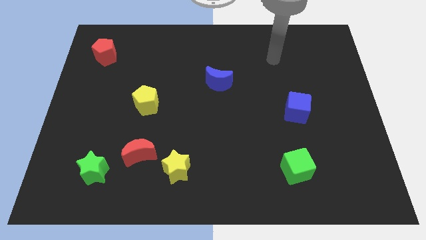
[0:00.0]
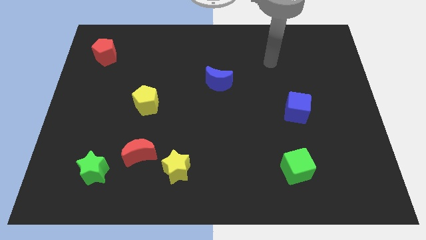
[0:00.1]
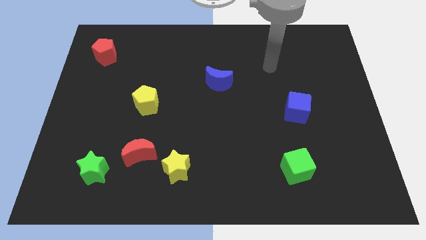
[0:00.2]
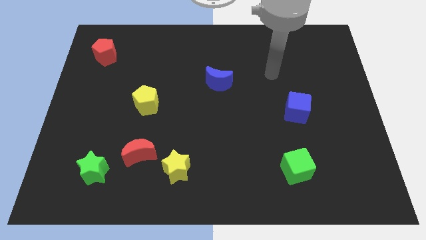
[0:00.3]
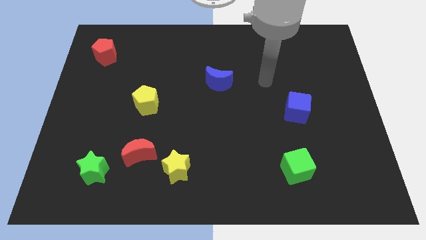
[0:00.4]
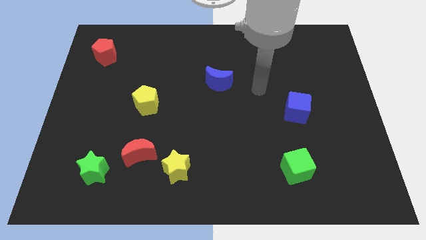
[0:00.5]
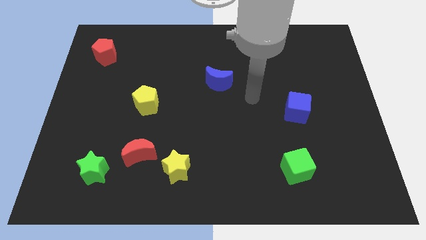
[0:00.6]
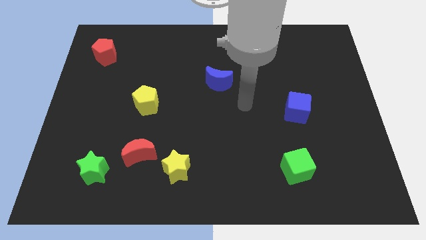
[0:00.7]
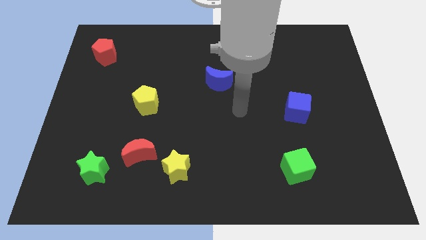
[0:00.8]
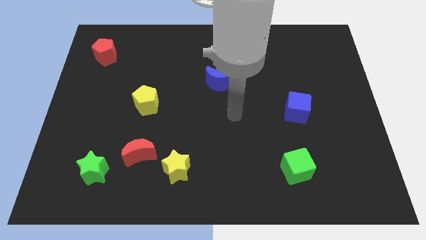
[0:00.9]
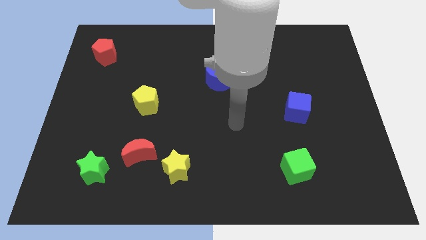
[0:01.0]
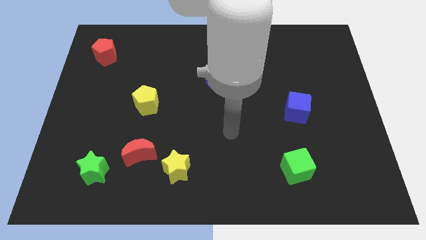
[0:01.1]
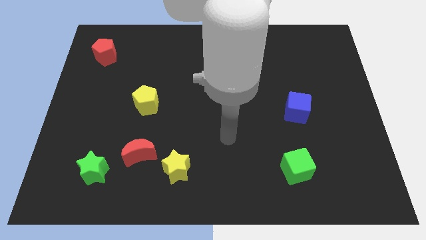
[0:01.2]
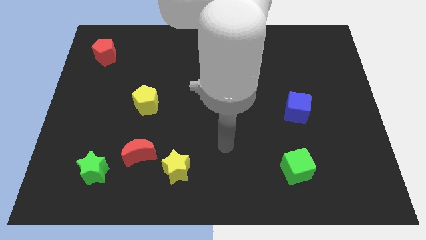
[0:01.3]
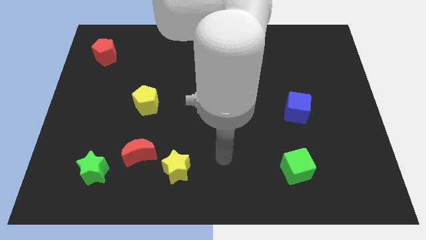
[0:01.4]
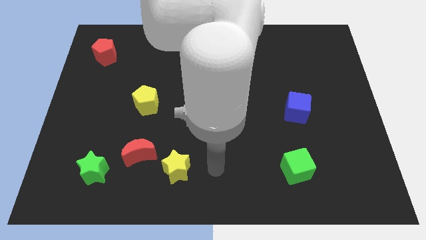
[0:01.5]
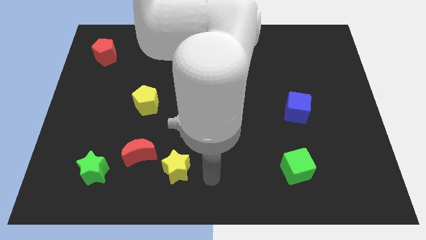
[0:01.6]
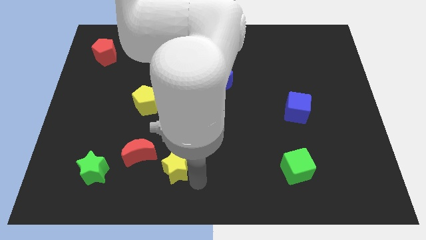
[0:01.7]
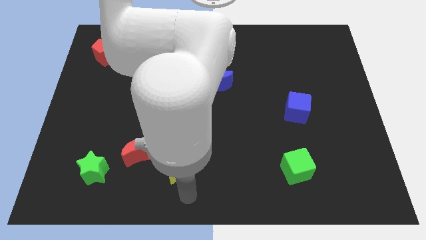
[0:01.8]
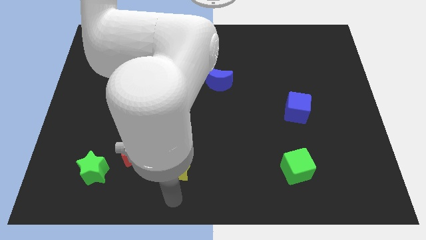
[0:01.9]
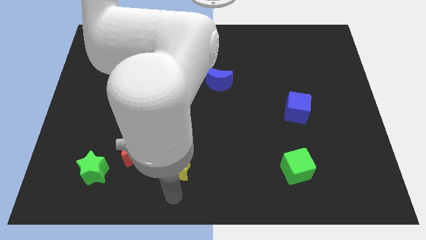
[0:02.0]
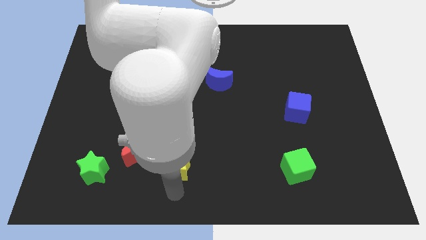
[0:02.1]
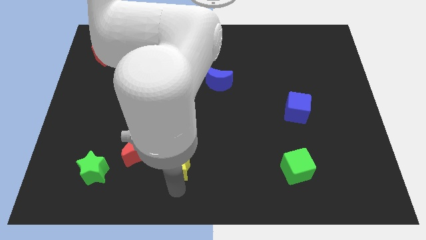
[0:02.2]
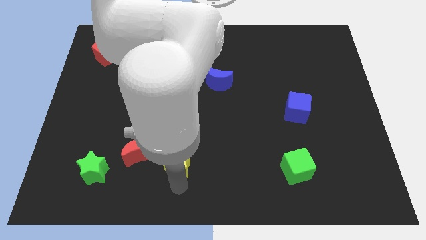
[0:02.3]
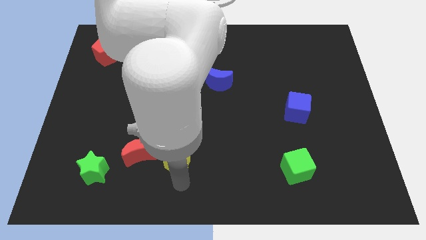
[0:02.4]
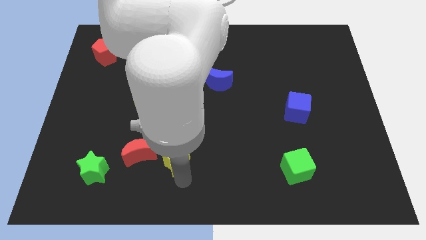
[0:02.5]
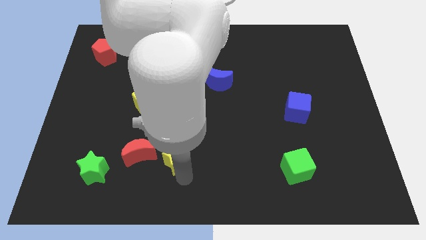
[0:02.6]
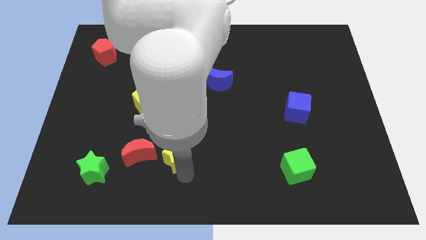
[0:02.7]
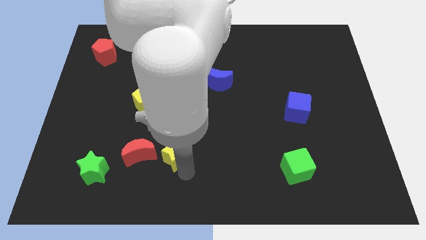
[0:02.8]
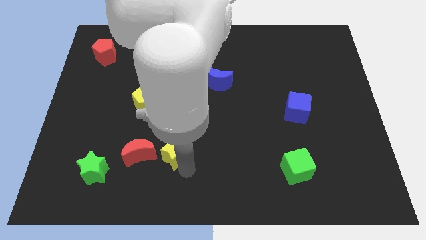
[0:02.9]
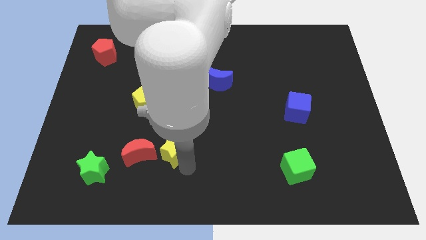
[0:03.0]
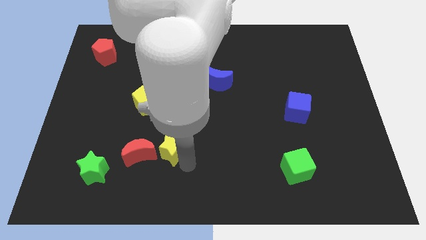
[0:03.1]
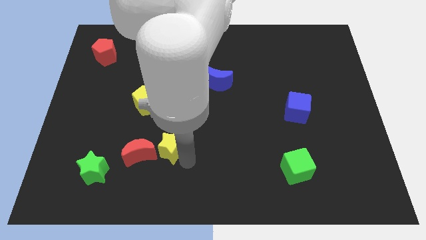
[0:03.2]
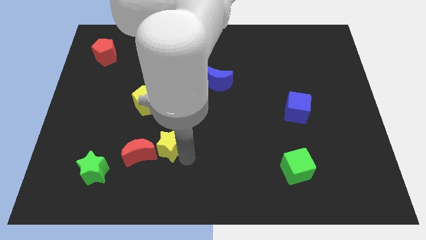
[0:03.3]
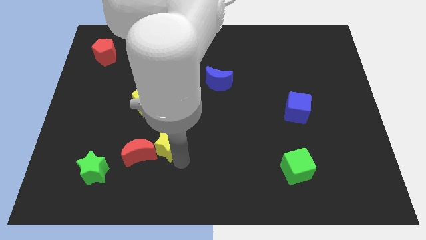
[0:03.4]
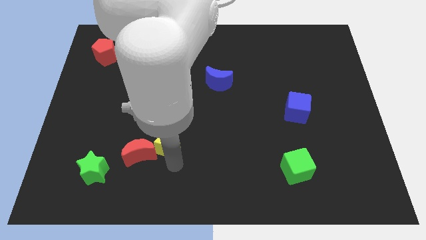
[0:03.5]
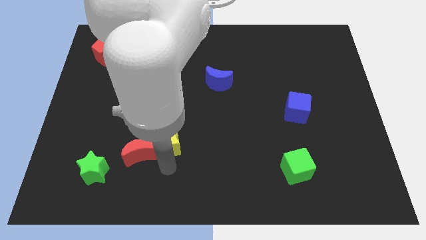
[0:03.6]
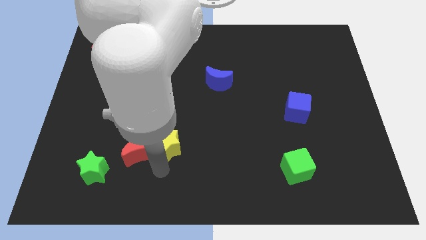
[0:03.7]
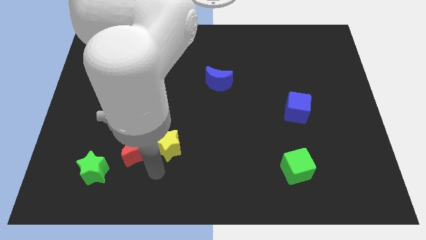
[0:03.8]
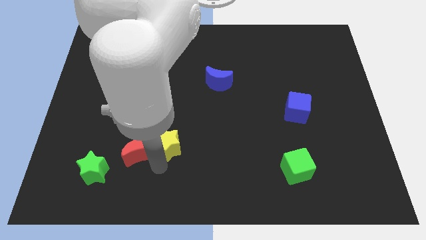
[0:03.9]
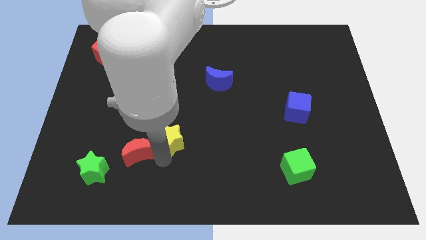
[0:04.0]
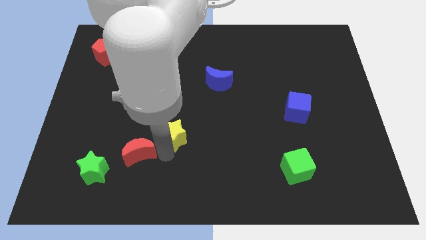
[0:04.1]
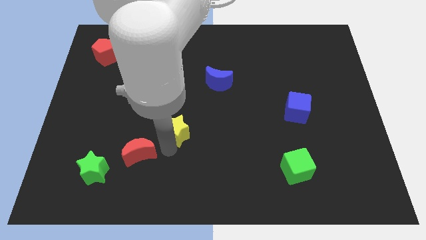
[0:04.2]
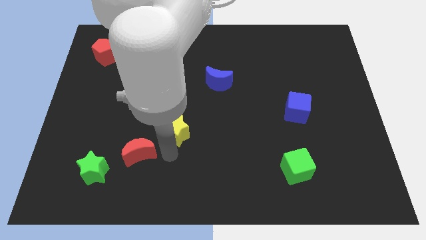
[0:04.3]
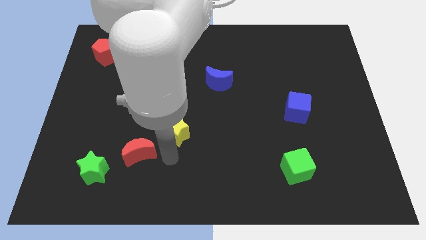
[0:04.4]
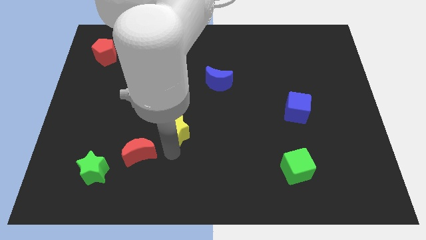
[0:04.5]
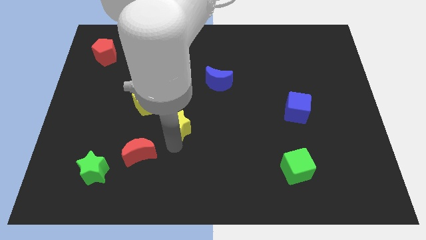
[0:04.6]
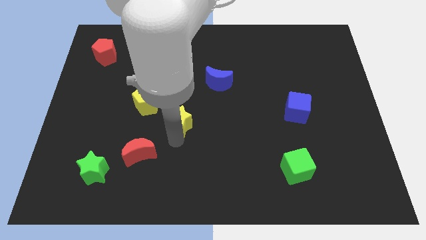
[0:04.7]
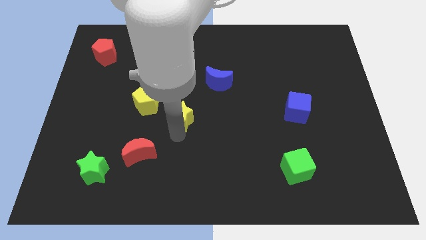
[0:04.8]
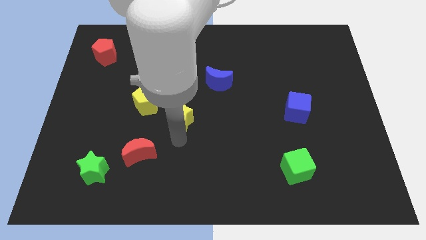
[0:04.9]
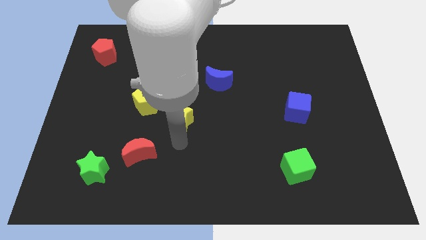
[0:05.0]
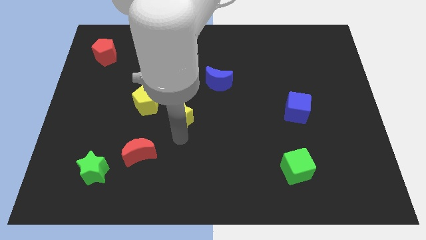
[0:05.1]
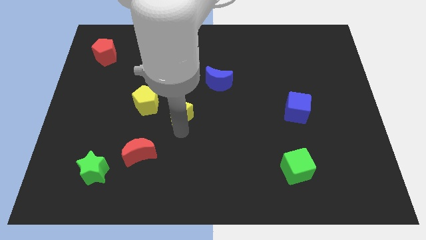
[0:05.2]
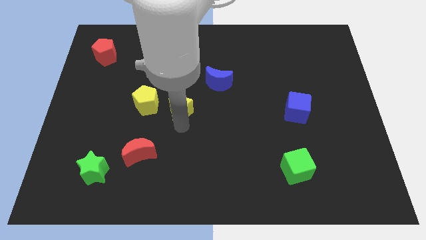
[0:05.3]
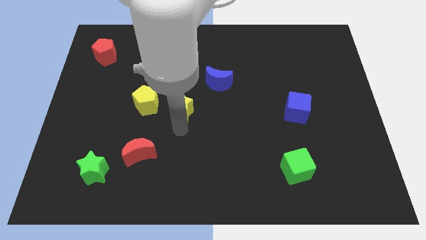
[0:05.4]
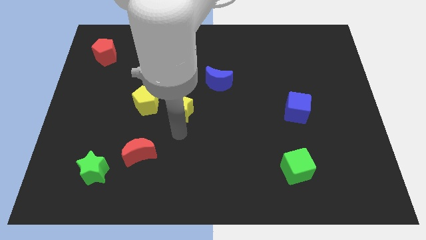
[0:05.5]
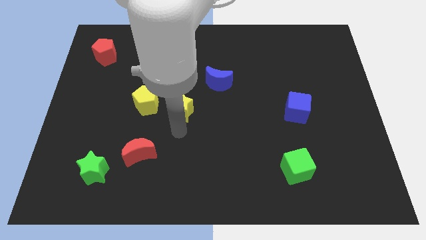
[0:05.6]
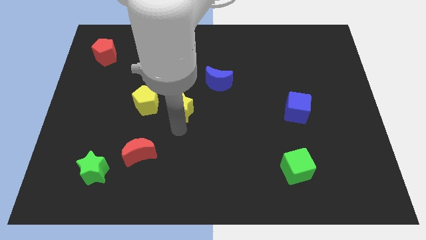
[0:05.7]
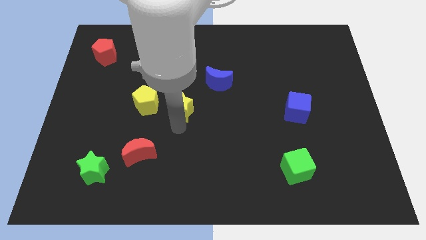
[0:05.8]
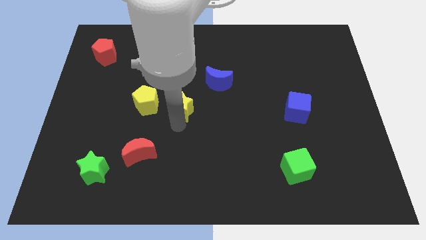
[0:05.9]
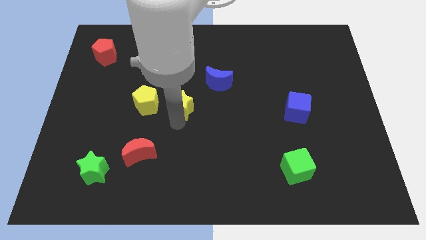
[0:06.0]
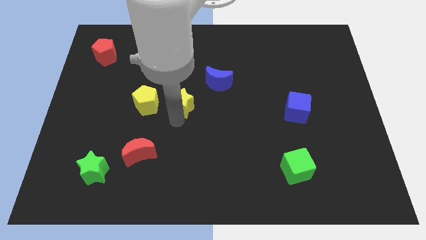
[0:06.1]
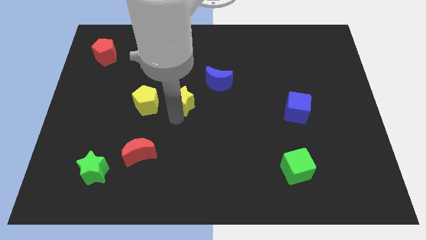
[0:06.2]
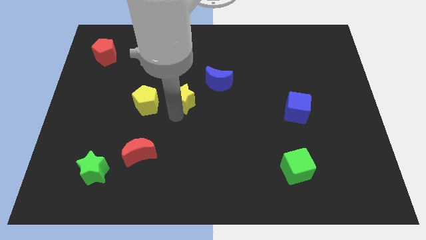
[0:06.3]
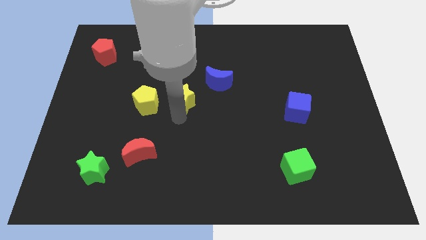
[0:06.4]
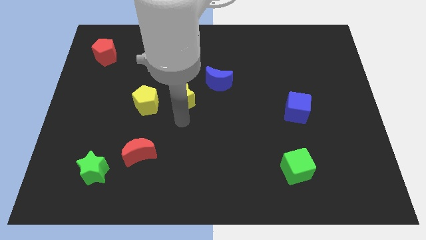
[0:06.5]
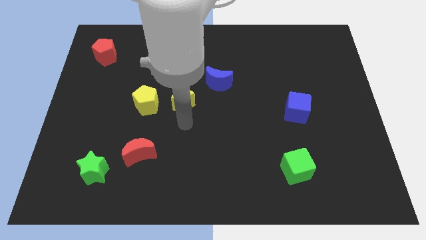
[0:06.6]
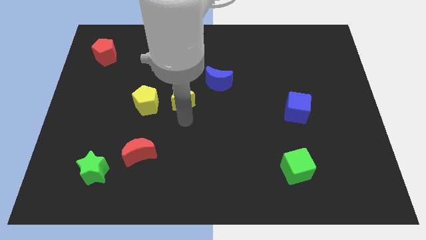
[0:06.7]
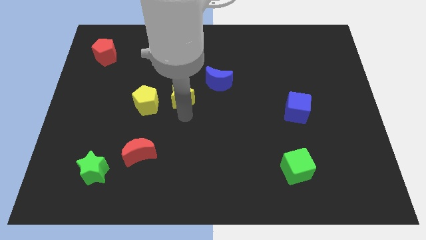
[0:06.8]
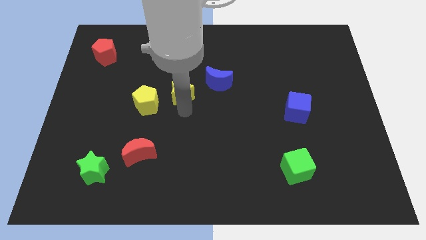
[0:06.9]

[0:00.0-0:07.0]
slide the yellow star upwards

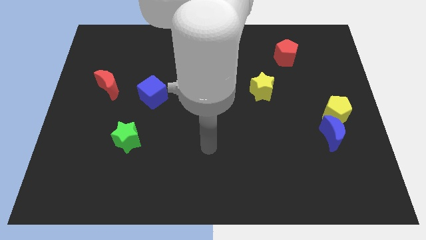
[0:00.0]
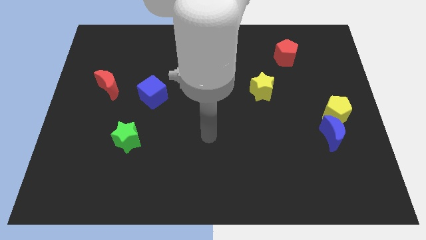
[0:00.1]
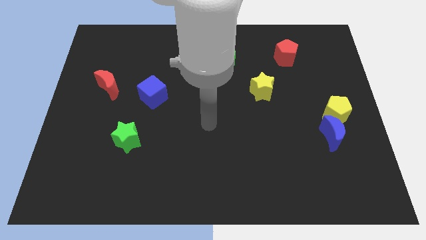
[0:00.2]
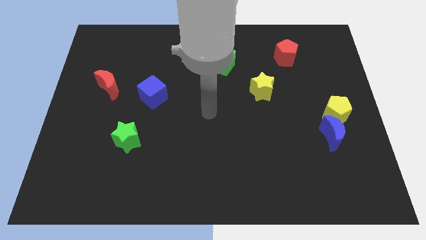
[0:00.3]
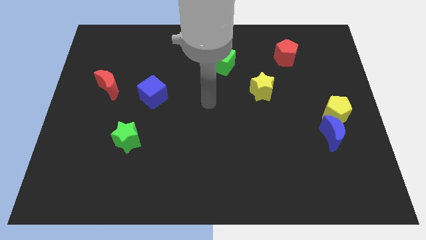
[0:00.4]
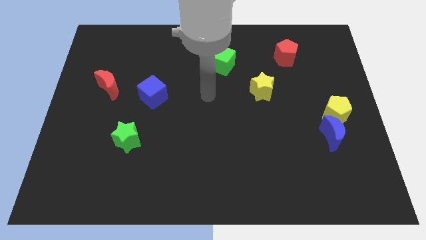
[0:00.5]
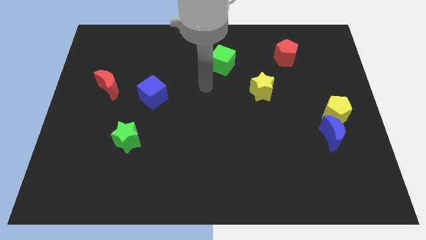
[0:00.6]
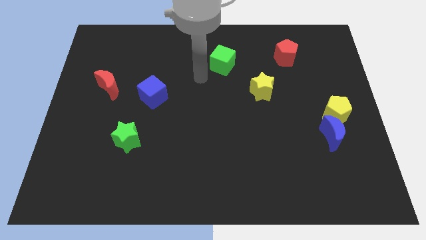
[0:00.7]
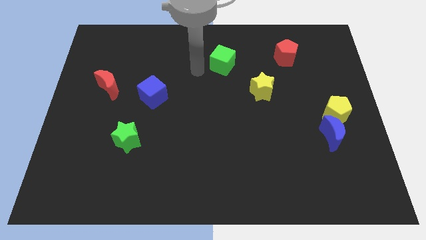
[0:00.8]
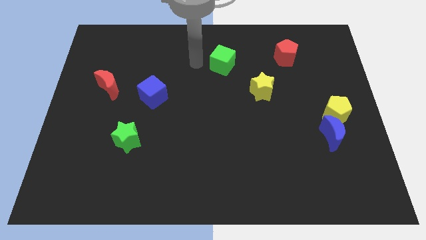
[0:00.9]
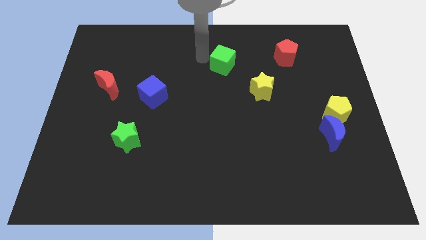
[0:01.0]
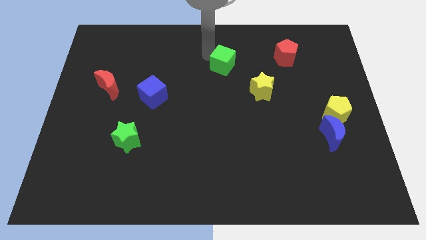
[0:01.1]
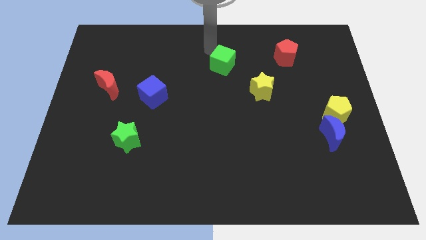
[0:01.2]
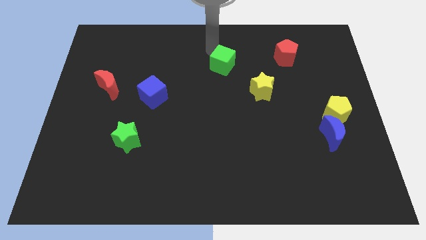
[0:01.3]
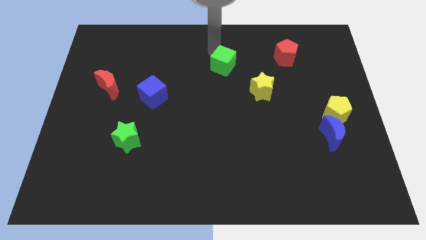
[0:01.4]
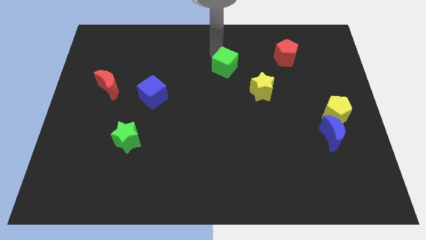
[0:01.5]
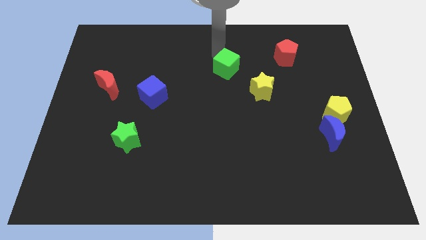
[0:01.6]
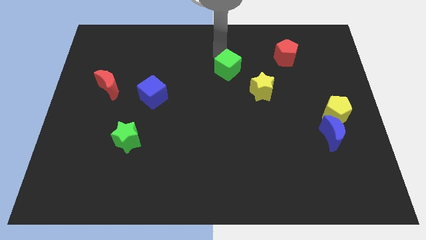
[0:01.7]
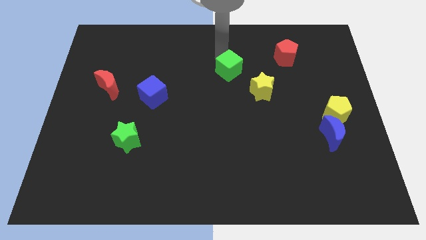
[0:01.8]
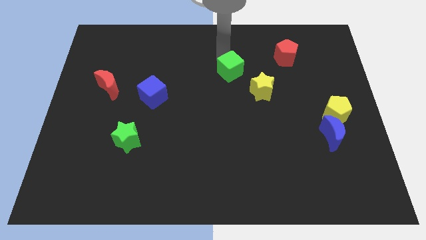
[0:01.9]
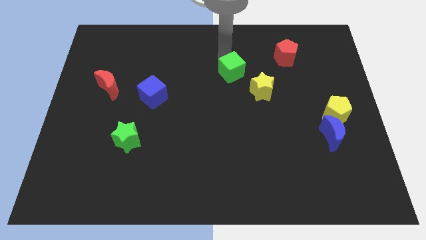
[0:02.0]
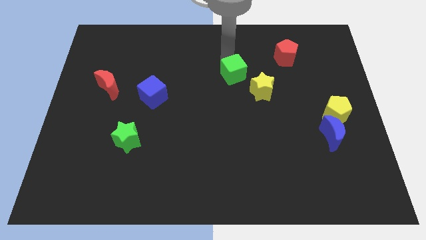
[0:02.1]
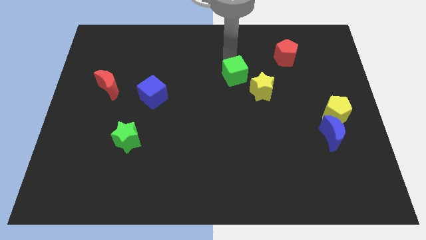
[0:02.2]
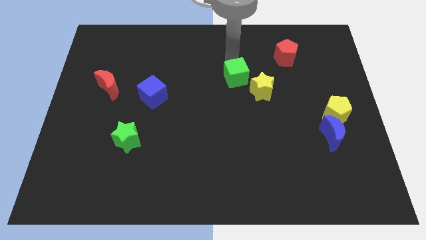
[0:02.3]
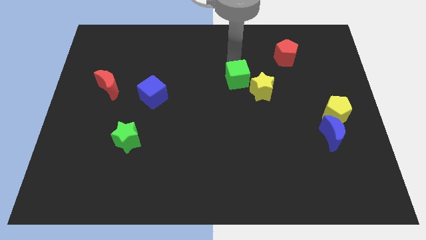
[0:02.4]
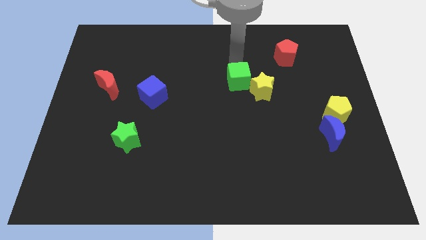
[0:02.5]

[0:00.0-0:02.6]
slightly slide the green cube down and right
